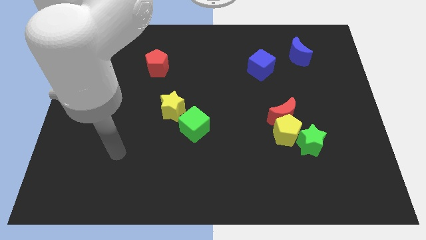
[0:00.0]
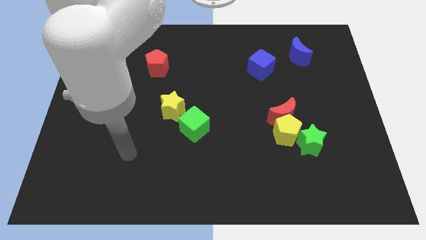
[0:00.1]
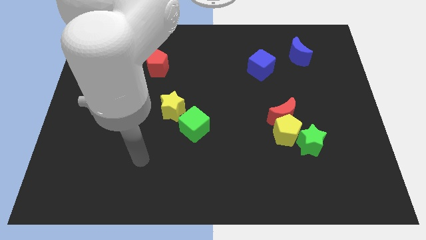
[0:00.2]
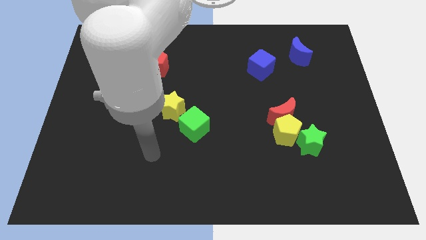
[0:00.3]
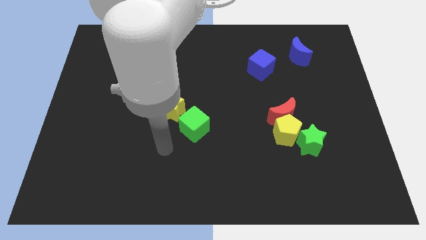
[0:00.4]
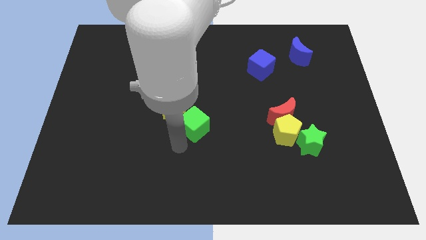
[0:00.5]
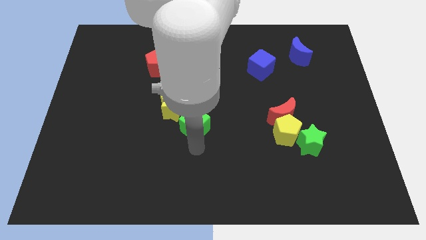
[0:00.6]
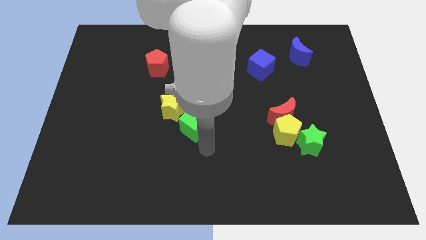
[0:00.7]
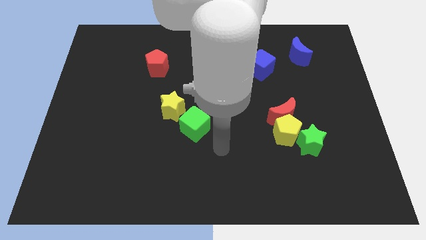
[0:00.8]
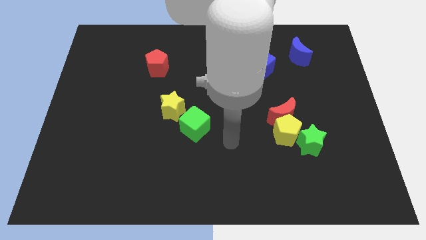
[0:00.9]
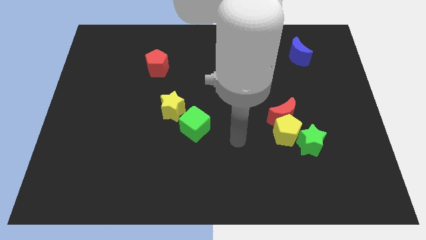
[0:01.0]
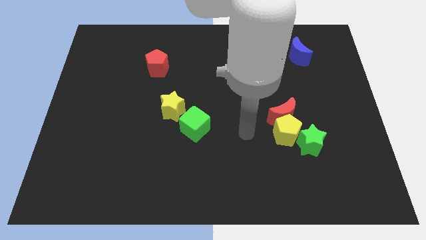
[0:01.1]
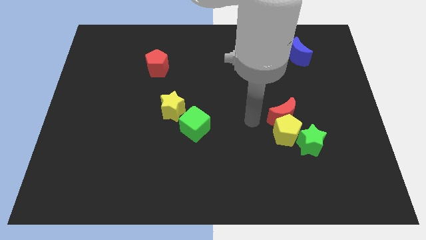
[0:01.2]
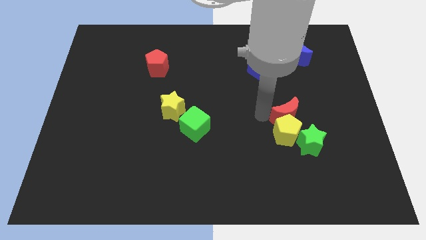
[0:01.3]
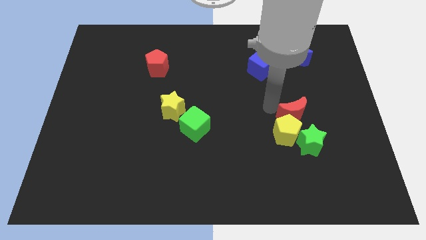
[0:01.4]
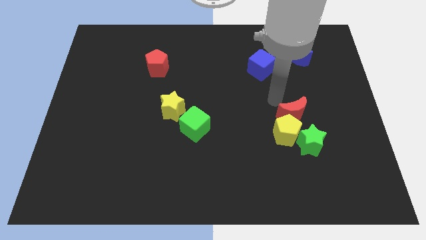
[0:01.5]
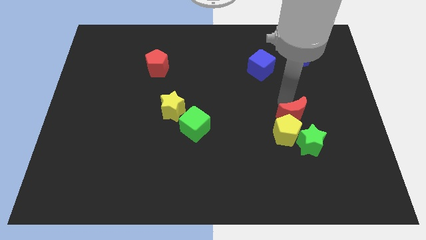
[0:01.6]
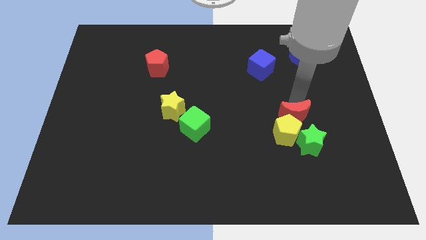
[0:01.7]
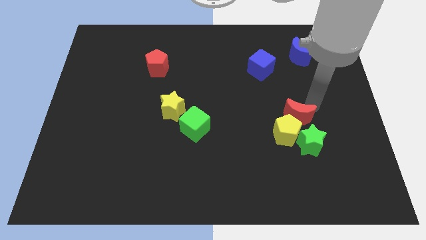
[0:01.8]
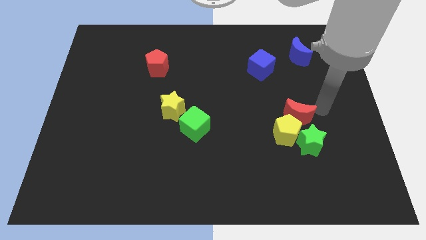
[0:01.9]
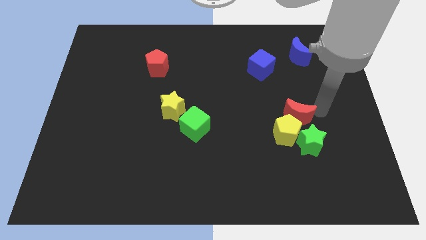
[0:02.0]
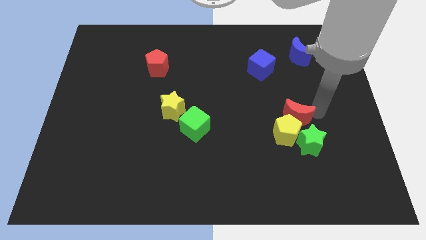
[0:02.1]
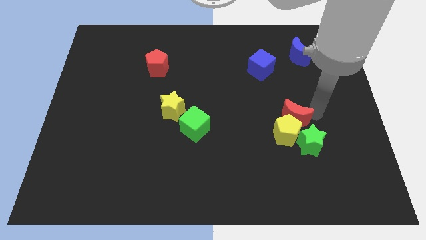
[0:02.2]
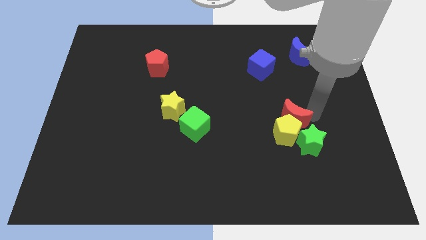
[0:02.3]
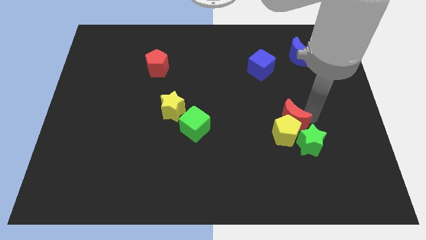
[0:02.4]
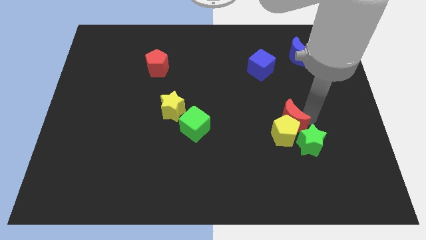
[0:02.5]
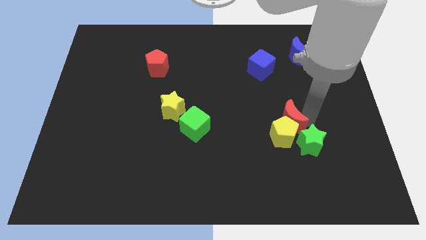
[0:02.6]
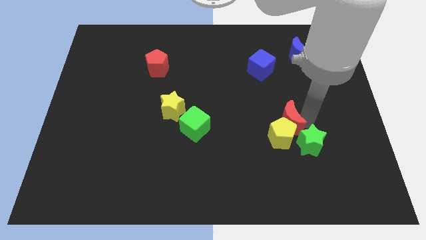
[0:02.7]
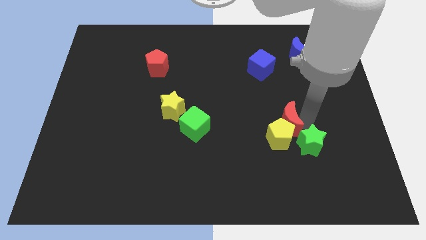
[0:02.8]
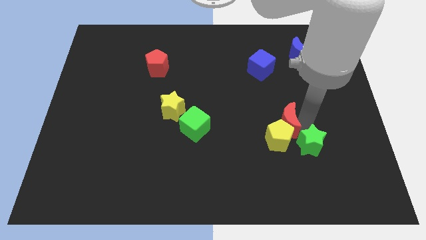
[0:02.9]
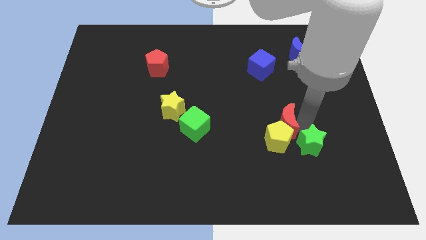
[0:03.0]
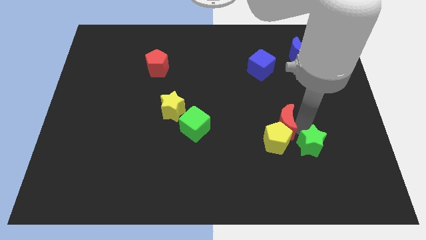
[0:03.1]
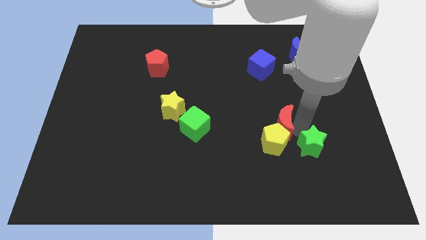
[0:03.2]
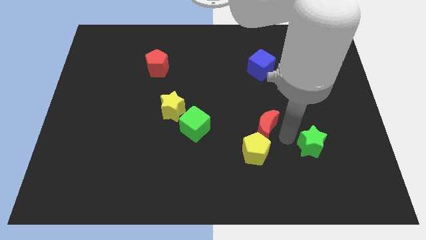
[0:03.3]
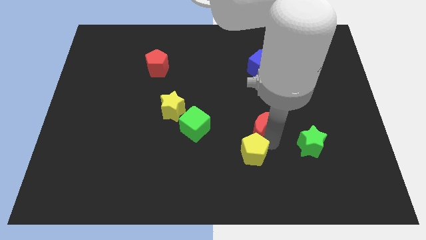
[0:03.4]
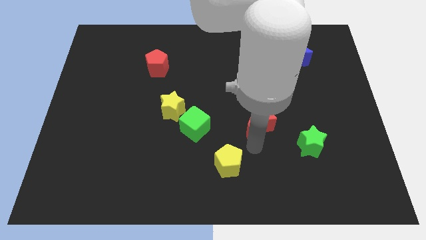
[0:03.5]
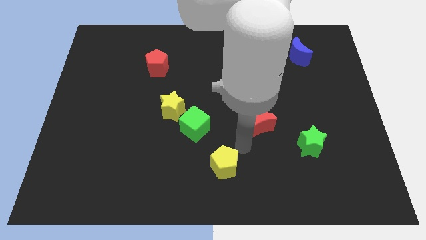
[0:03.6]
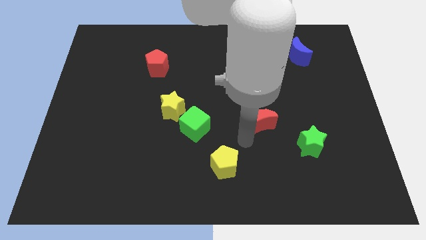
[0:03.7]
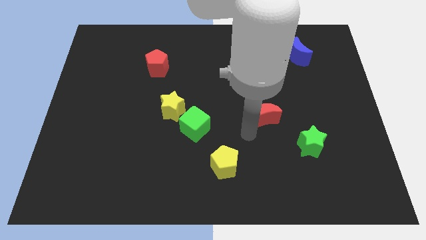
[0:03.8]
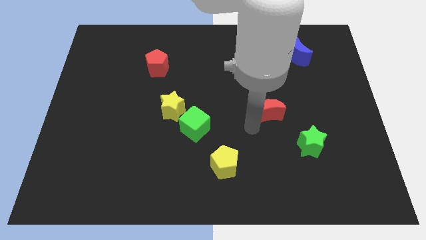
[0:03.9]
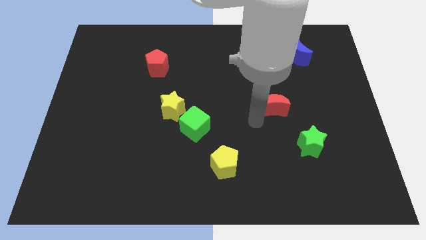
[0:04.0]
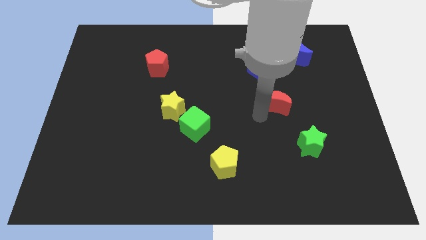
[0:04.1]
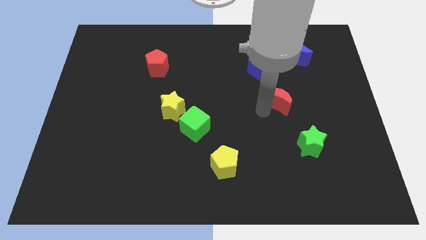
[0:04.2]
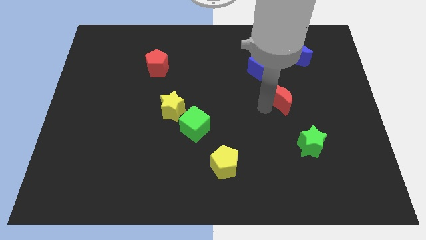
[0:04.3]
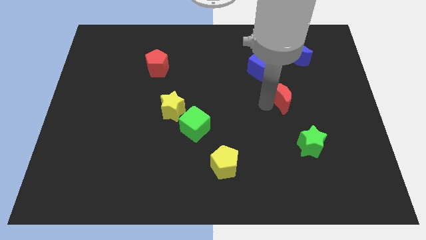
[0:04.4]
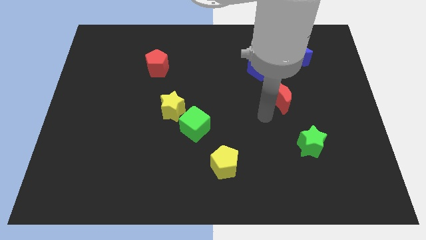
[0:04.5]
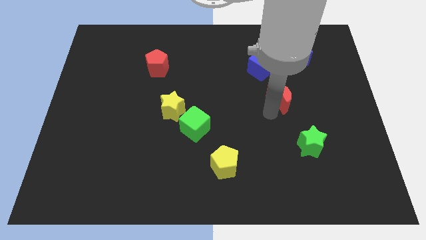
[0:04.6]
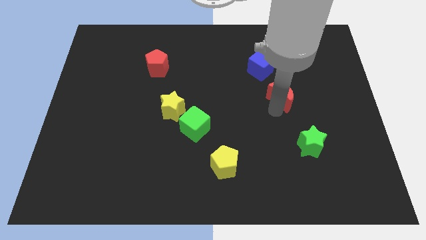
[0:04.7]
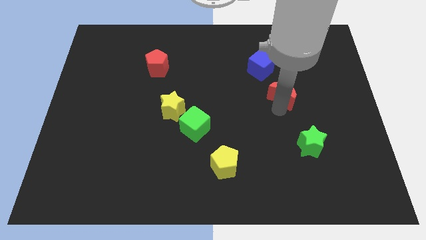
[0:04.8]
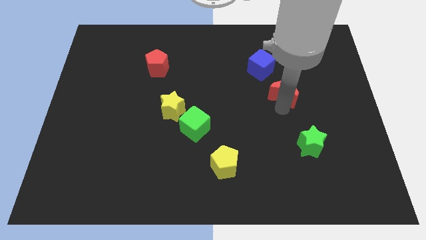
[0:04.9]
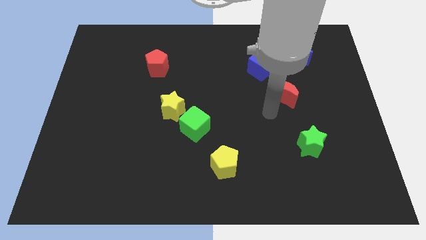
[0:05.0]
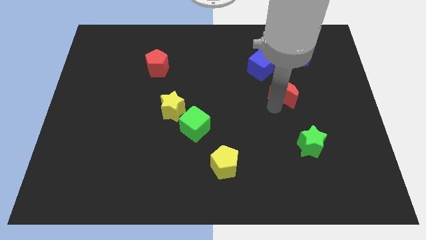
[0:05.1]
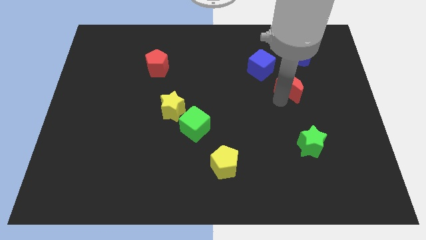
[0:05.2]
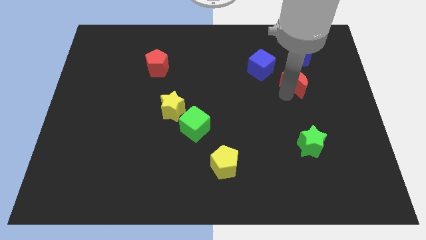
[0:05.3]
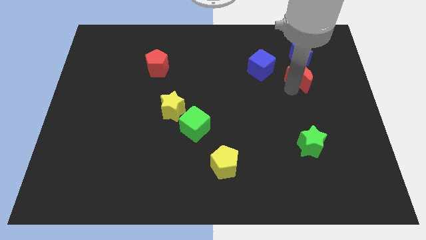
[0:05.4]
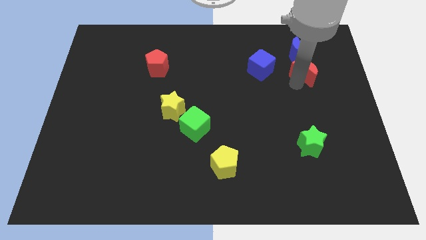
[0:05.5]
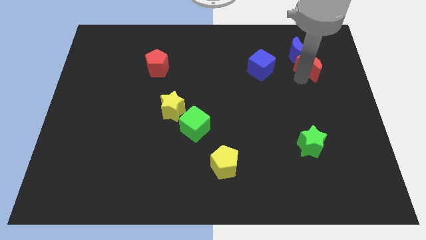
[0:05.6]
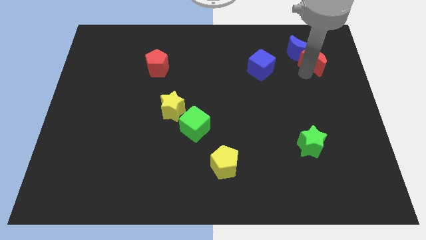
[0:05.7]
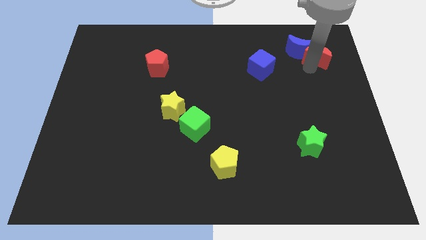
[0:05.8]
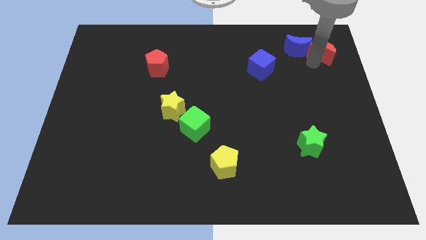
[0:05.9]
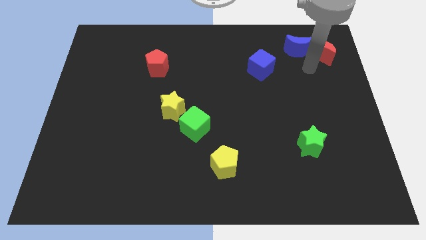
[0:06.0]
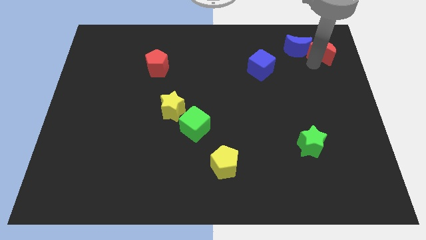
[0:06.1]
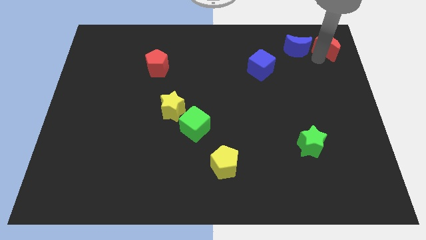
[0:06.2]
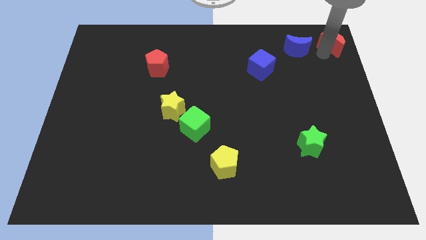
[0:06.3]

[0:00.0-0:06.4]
slide the red moon to the top right corner
